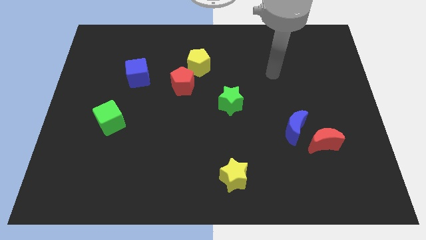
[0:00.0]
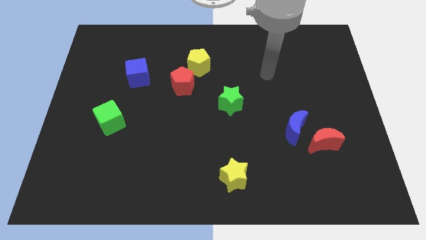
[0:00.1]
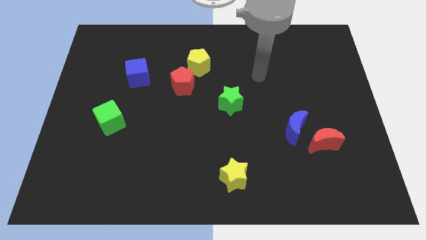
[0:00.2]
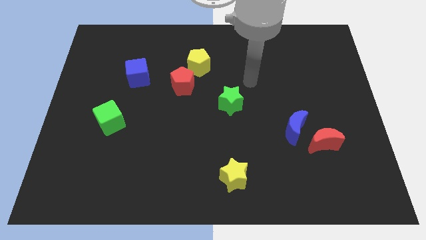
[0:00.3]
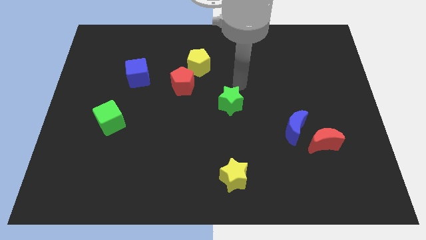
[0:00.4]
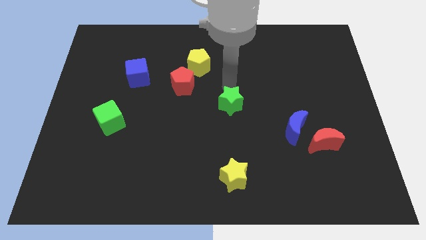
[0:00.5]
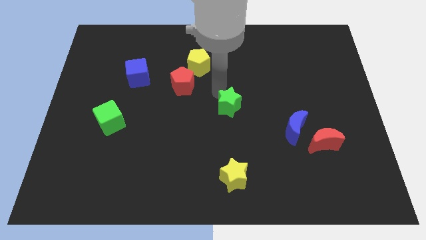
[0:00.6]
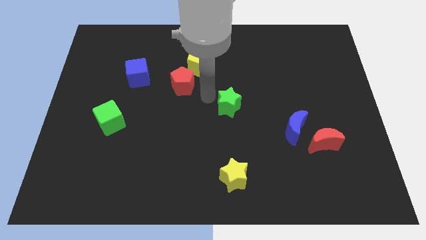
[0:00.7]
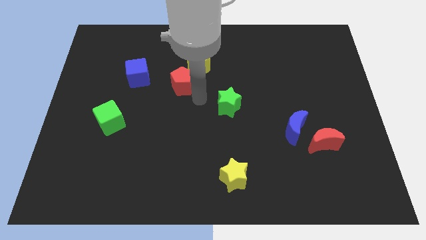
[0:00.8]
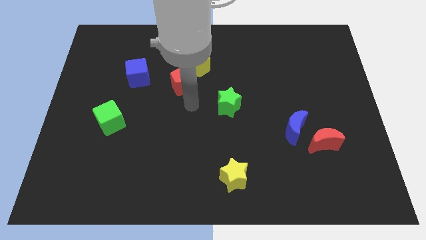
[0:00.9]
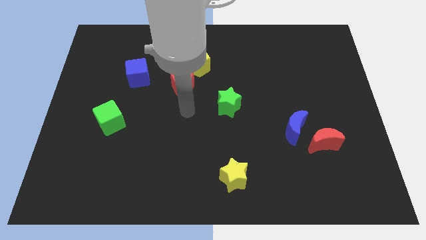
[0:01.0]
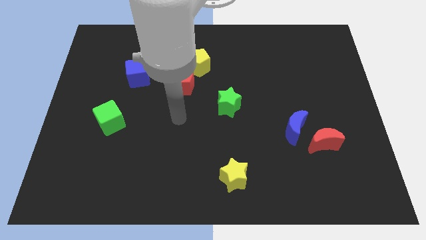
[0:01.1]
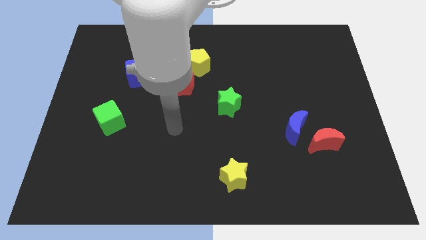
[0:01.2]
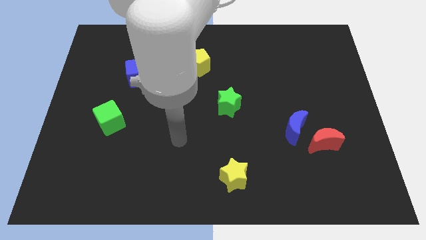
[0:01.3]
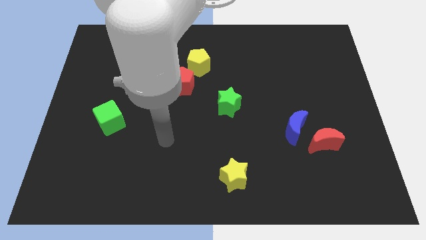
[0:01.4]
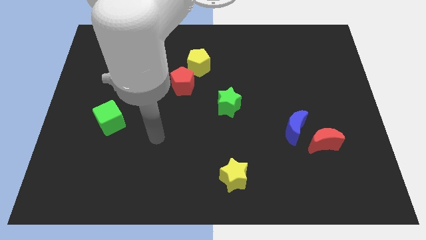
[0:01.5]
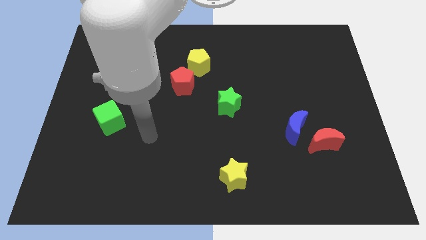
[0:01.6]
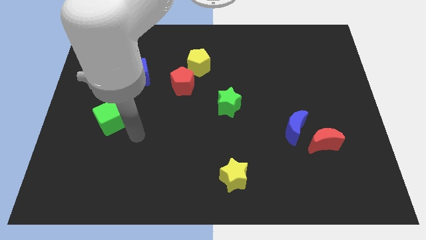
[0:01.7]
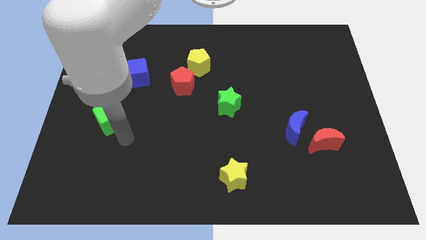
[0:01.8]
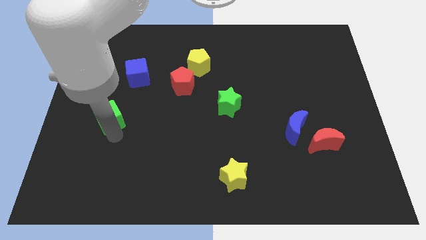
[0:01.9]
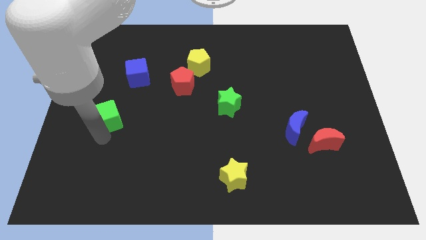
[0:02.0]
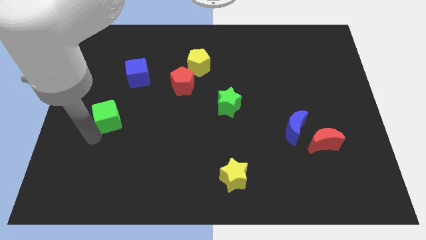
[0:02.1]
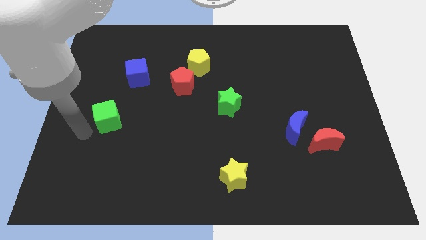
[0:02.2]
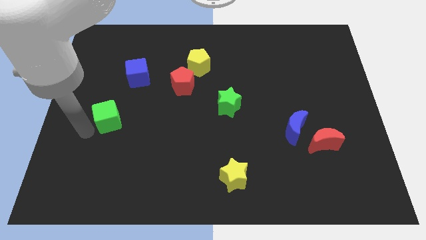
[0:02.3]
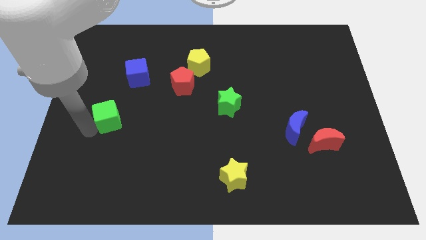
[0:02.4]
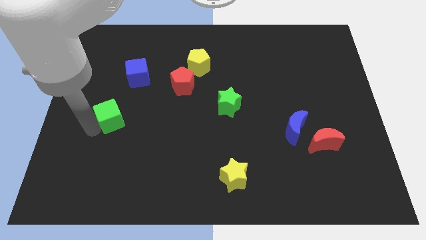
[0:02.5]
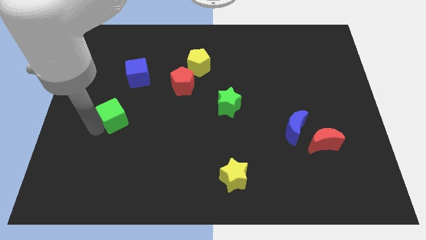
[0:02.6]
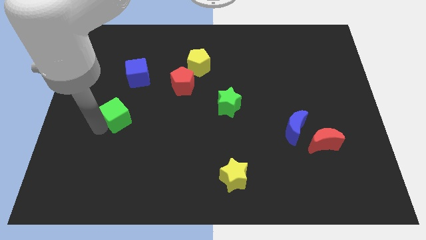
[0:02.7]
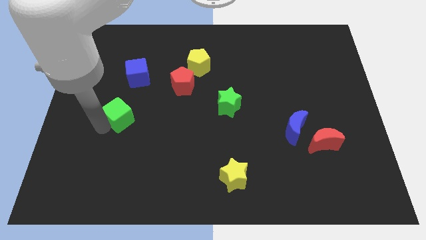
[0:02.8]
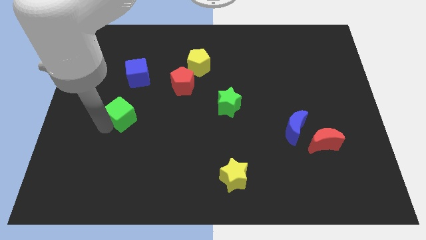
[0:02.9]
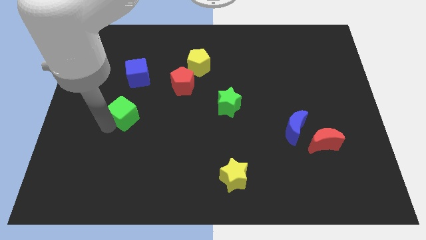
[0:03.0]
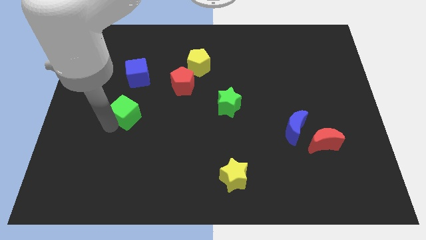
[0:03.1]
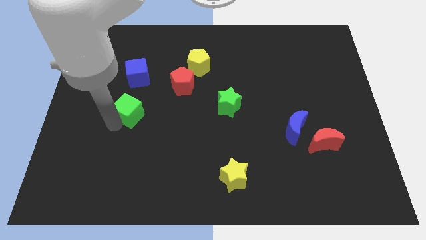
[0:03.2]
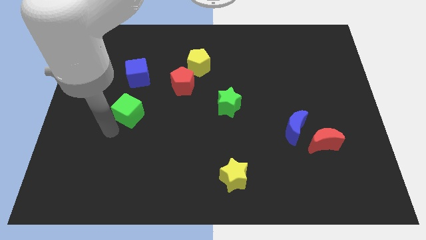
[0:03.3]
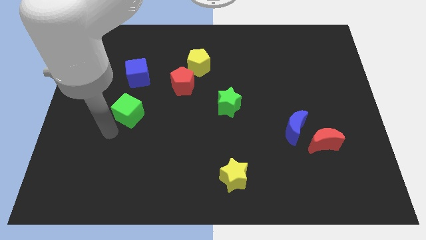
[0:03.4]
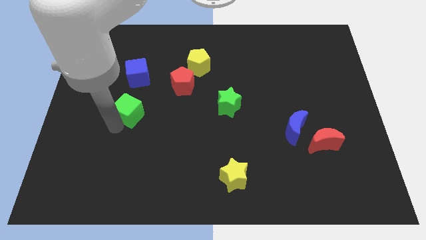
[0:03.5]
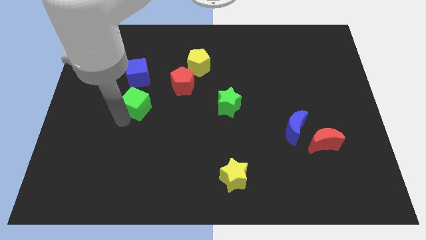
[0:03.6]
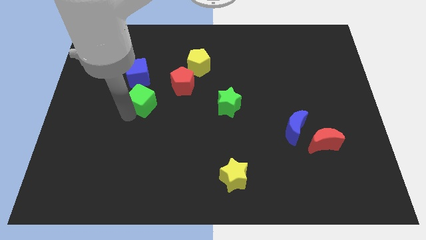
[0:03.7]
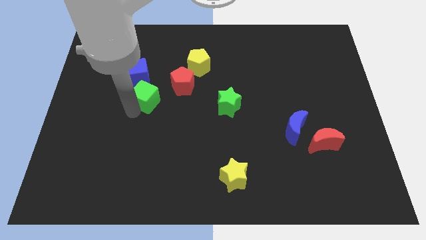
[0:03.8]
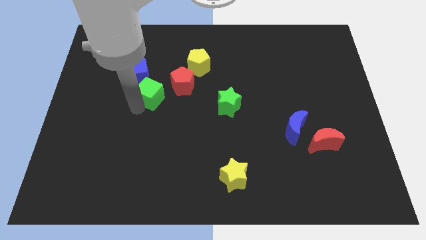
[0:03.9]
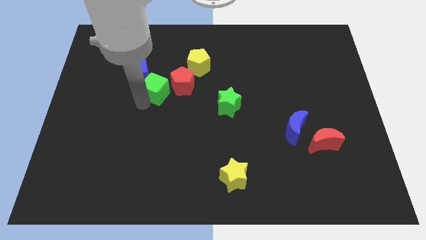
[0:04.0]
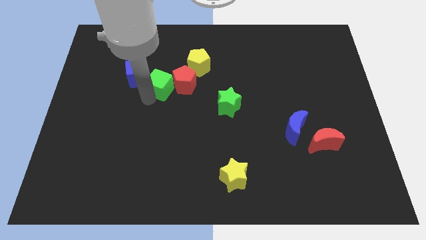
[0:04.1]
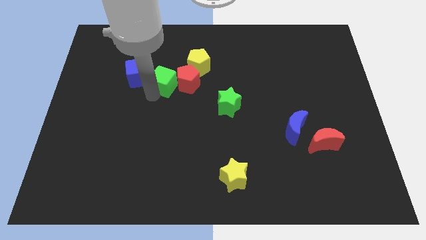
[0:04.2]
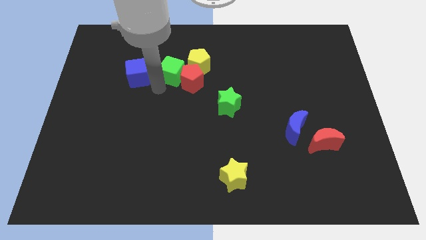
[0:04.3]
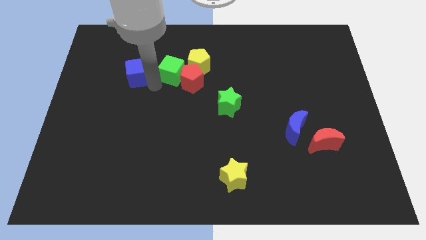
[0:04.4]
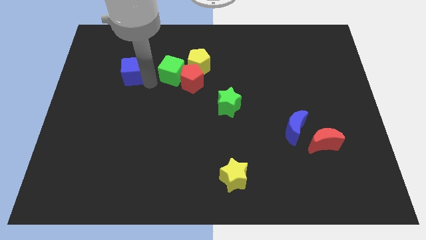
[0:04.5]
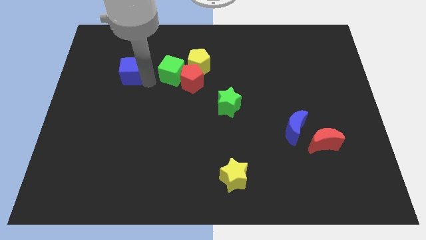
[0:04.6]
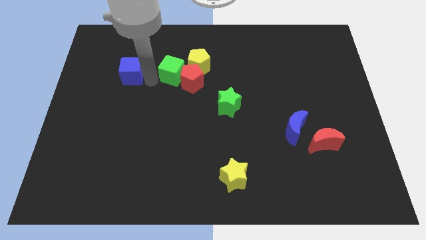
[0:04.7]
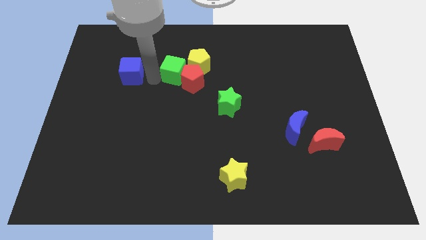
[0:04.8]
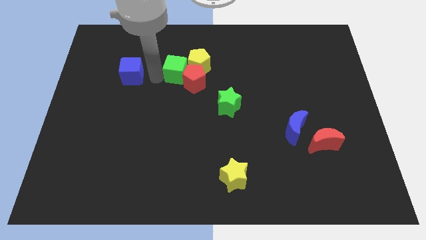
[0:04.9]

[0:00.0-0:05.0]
put the green cube to the yellow pentagon

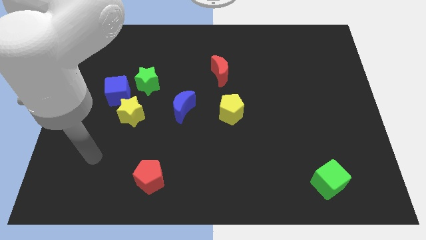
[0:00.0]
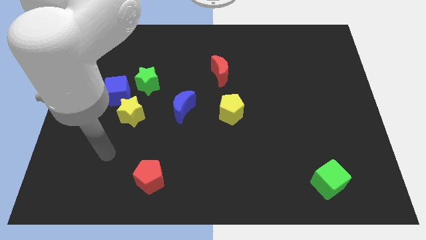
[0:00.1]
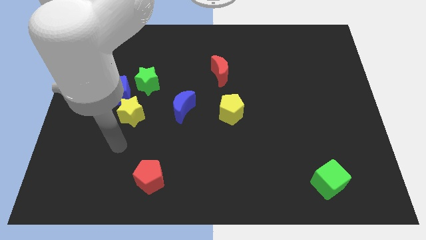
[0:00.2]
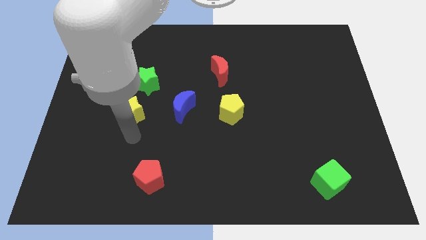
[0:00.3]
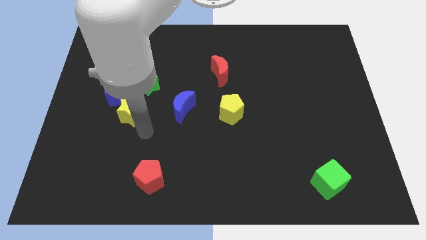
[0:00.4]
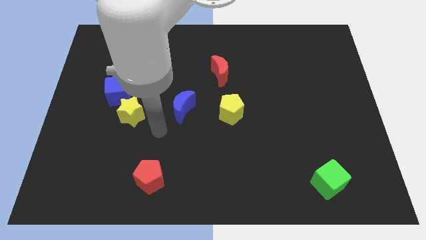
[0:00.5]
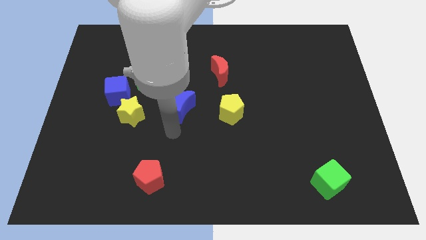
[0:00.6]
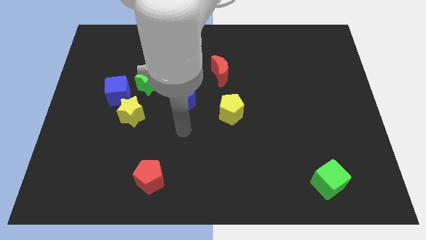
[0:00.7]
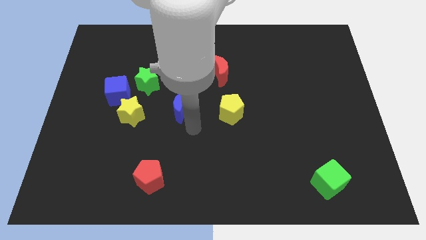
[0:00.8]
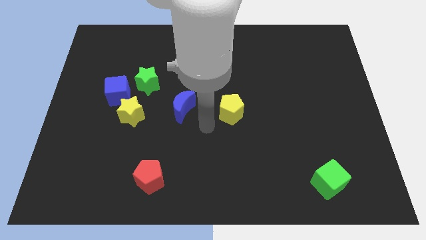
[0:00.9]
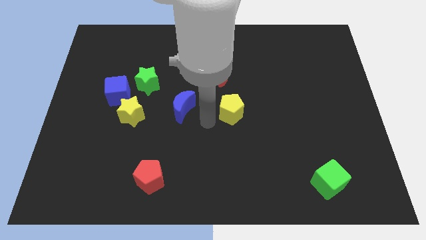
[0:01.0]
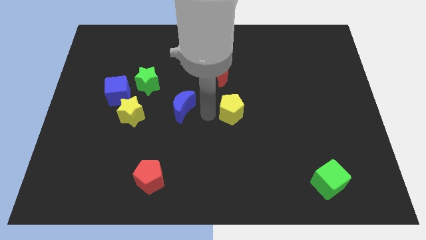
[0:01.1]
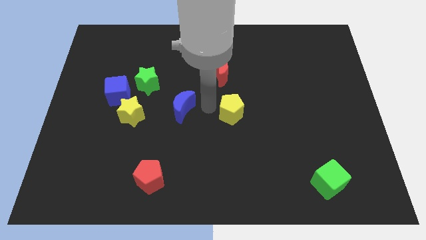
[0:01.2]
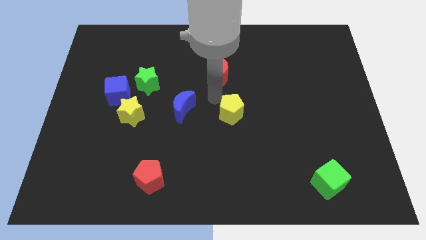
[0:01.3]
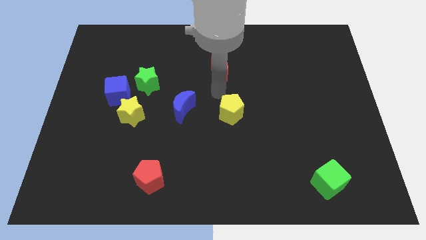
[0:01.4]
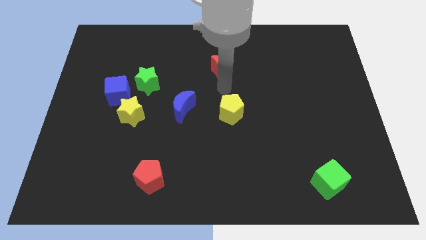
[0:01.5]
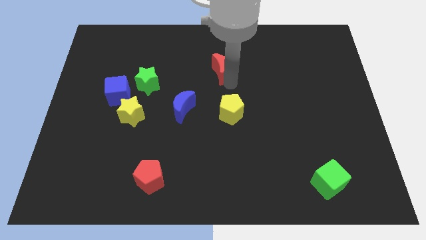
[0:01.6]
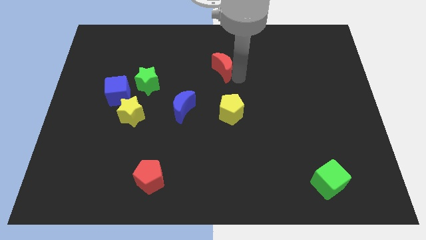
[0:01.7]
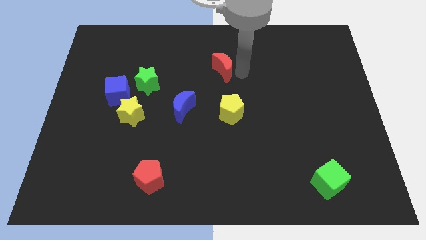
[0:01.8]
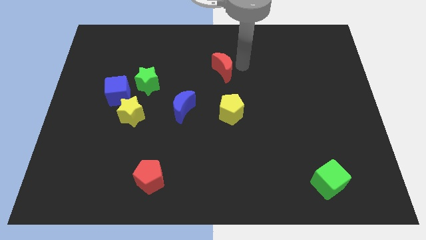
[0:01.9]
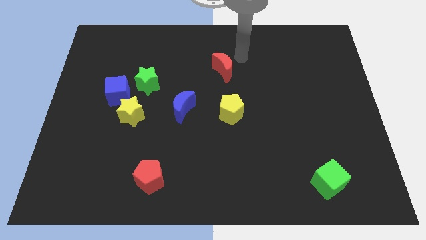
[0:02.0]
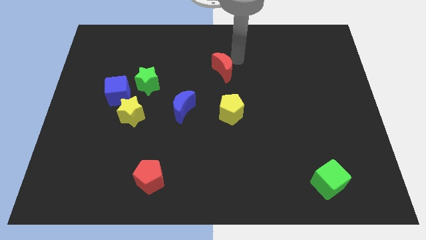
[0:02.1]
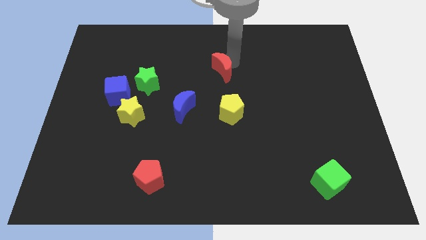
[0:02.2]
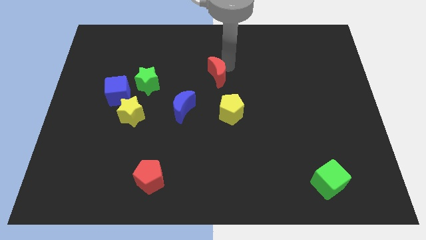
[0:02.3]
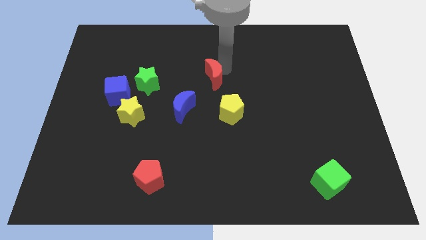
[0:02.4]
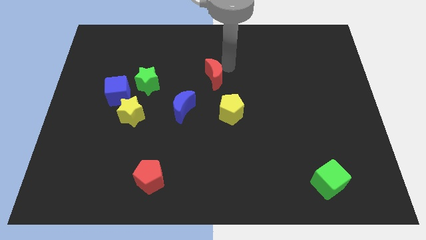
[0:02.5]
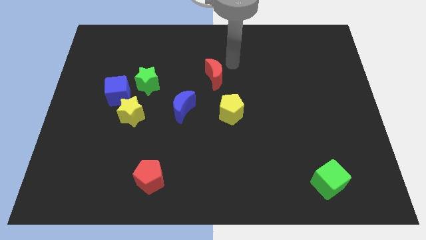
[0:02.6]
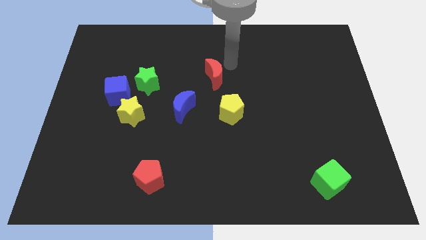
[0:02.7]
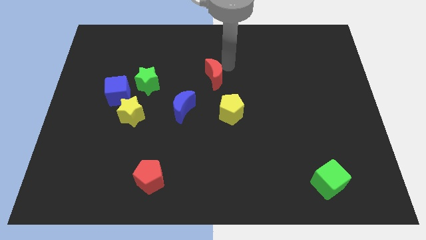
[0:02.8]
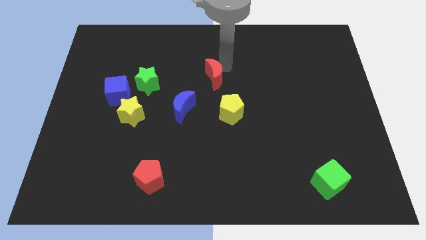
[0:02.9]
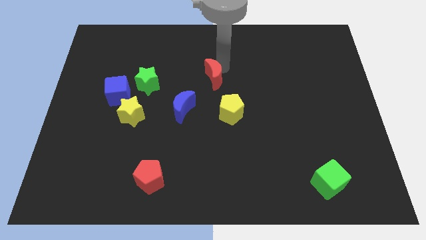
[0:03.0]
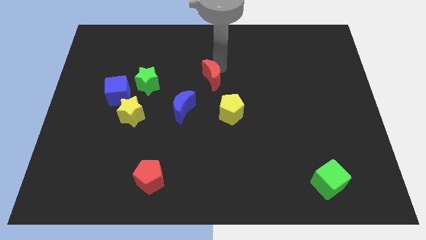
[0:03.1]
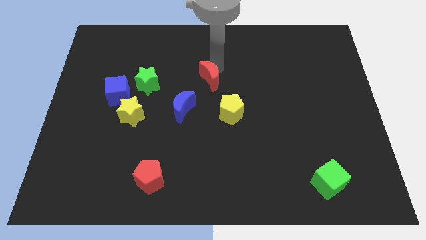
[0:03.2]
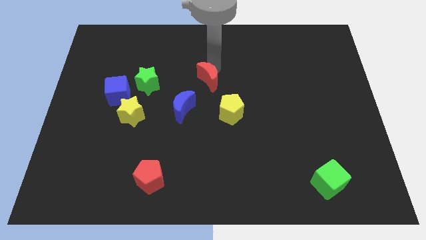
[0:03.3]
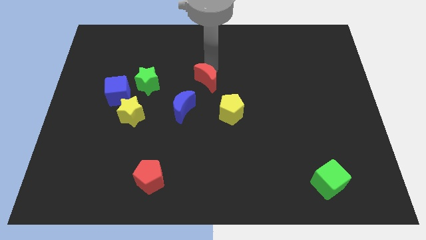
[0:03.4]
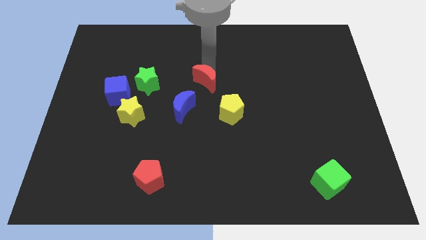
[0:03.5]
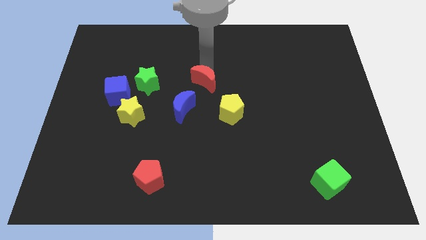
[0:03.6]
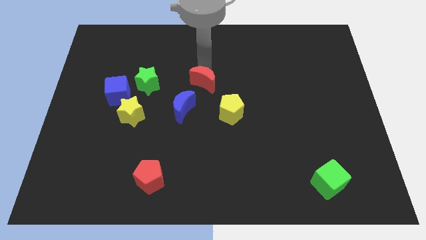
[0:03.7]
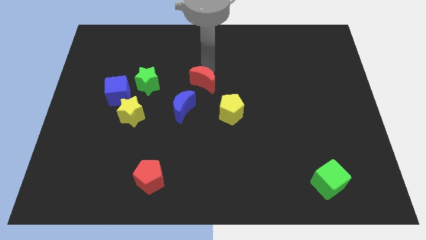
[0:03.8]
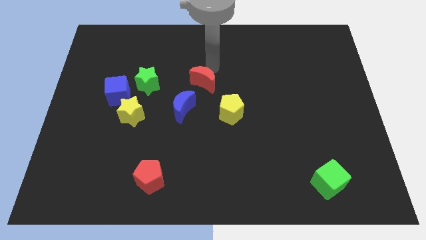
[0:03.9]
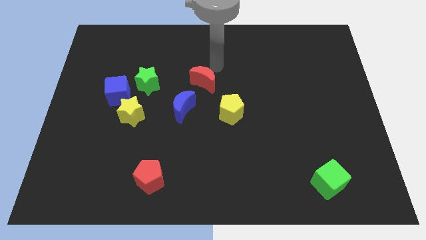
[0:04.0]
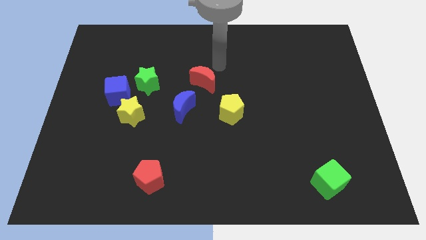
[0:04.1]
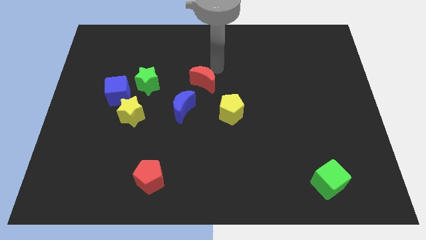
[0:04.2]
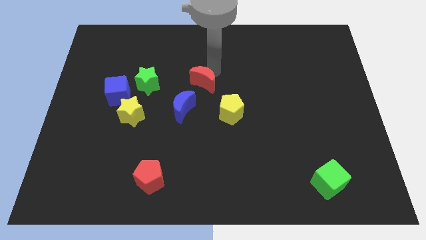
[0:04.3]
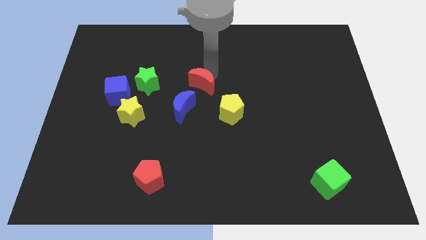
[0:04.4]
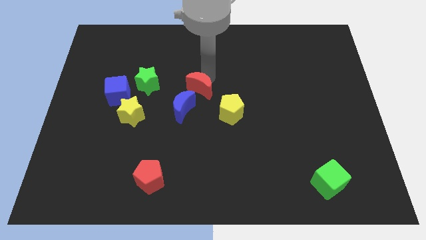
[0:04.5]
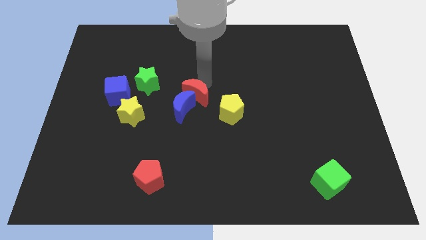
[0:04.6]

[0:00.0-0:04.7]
move the red moon close to the blue moon
